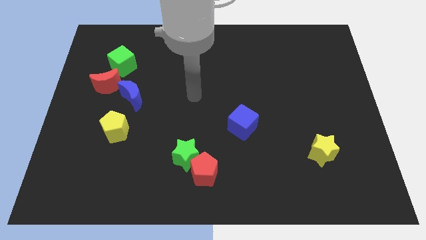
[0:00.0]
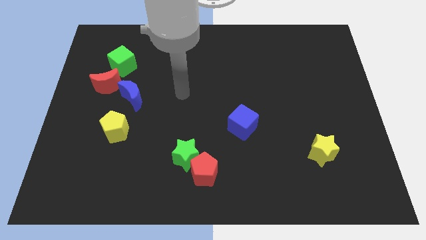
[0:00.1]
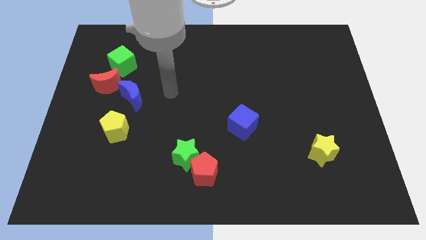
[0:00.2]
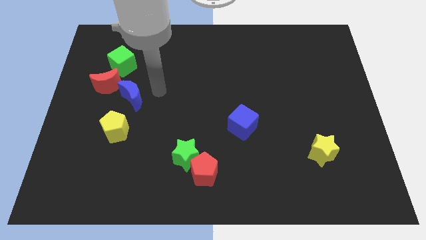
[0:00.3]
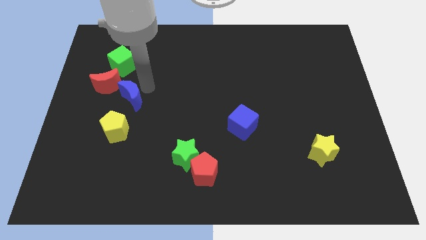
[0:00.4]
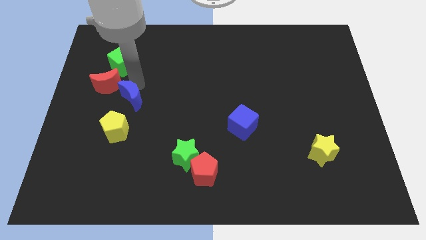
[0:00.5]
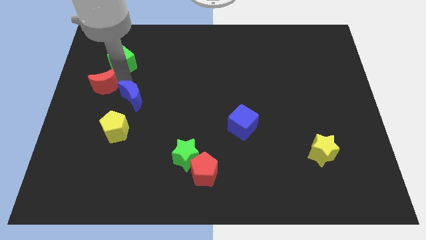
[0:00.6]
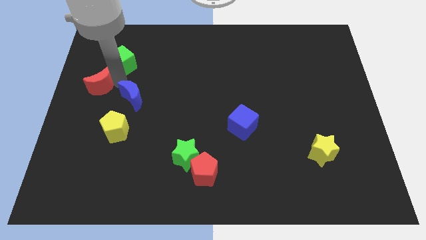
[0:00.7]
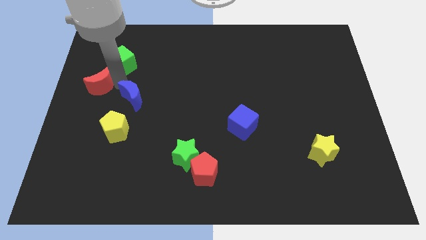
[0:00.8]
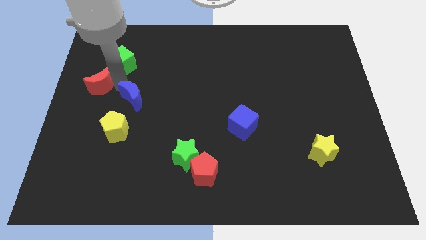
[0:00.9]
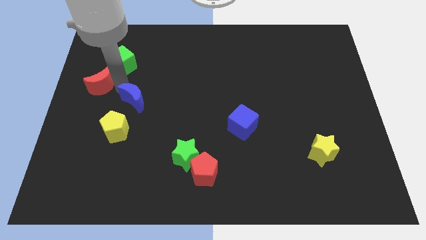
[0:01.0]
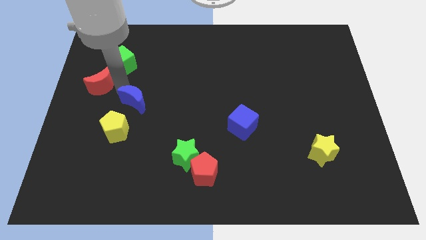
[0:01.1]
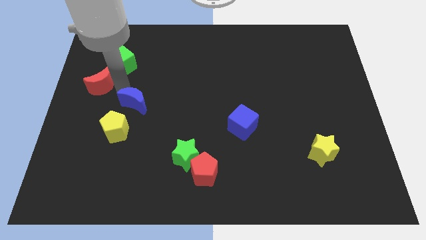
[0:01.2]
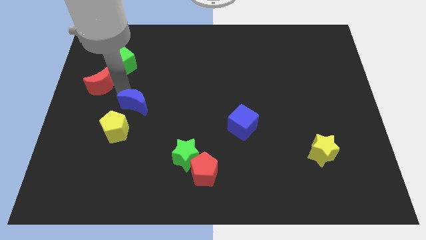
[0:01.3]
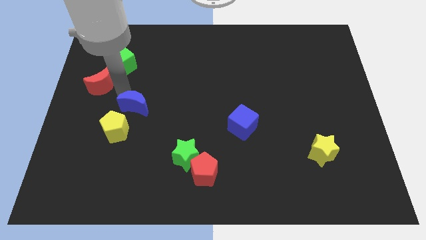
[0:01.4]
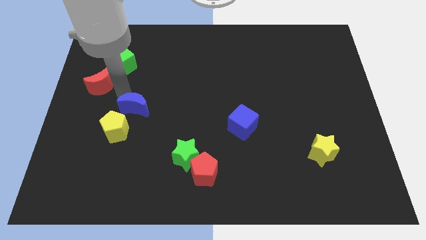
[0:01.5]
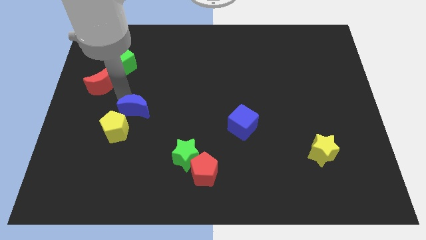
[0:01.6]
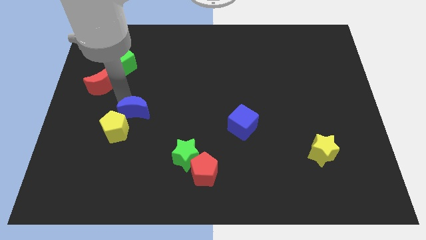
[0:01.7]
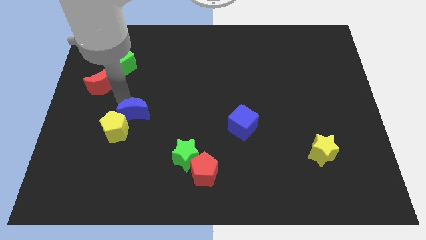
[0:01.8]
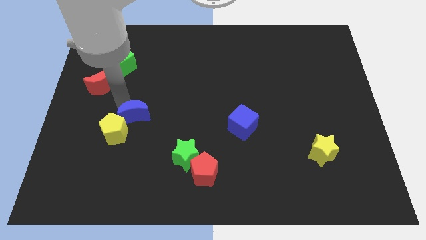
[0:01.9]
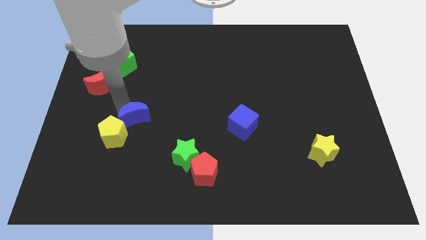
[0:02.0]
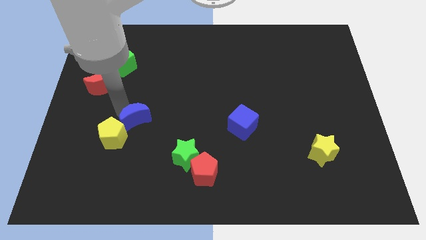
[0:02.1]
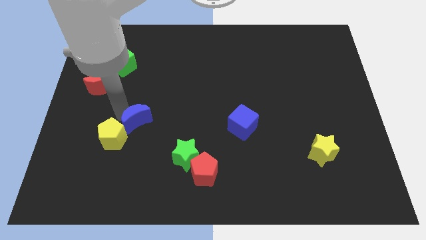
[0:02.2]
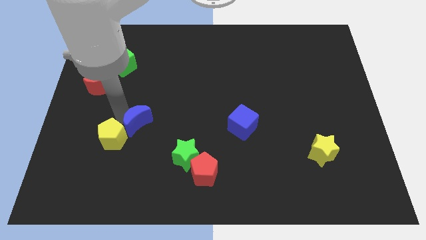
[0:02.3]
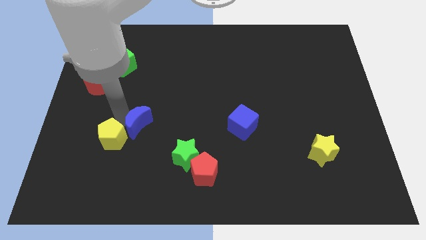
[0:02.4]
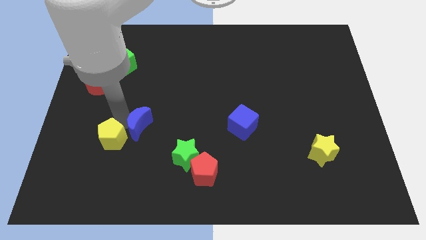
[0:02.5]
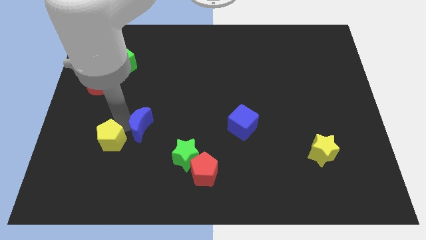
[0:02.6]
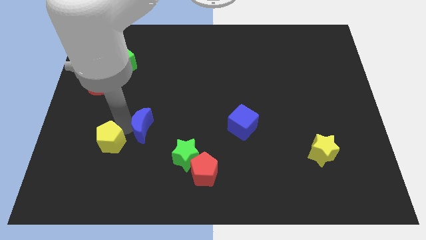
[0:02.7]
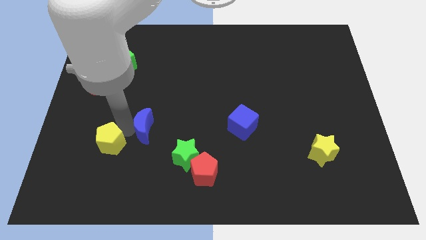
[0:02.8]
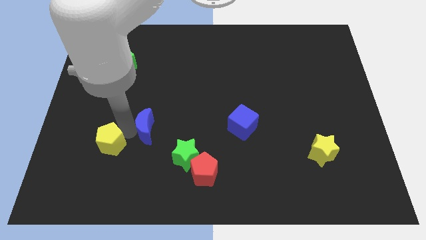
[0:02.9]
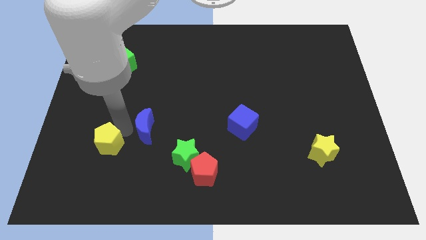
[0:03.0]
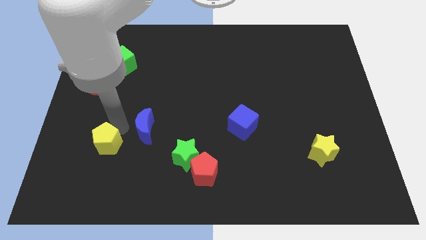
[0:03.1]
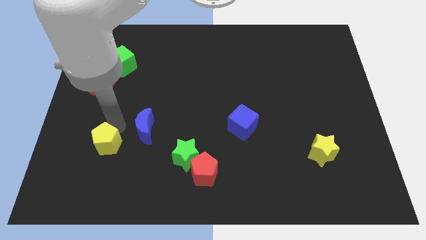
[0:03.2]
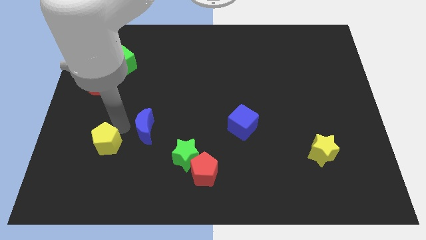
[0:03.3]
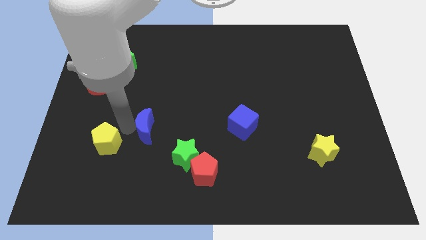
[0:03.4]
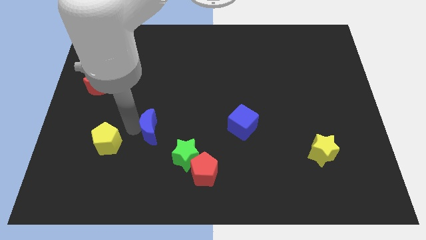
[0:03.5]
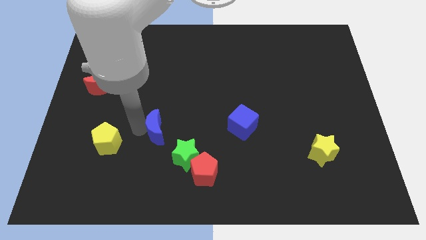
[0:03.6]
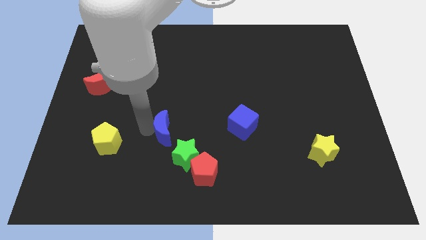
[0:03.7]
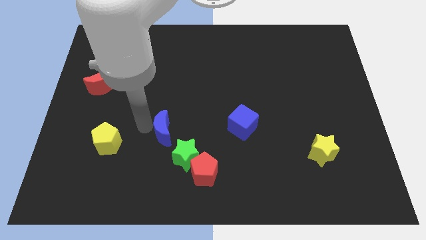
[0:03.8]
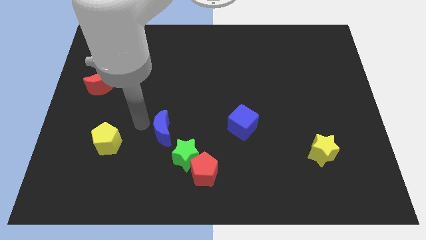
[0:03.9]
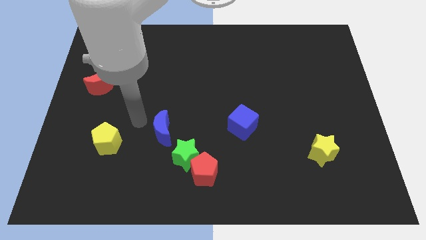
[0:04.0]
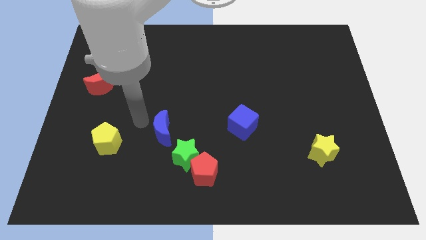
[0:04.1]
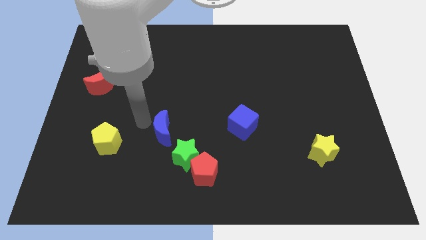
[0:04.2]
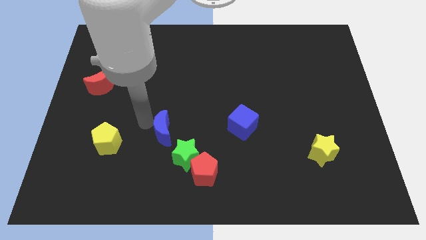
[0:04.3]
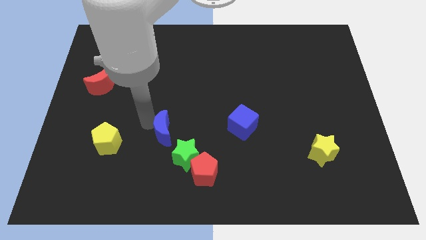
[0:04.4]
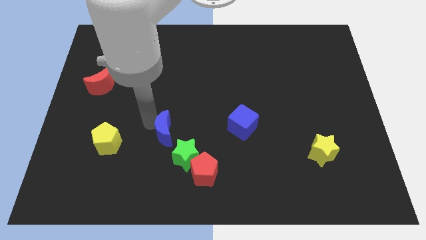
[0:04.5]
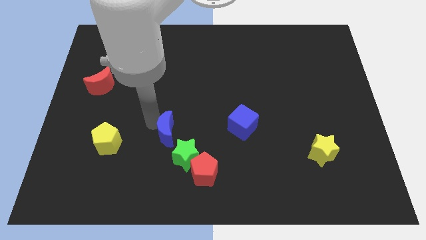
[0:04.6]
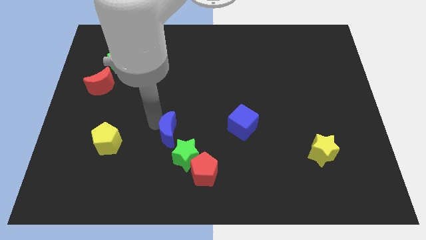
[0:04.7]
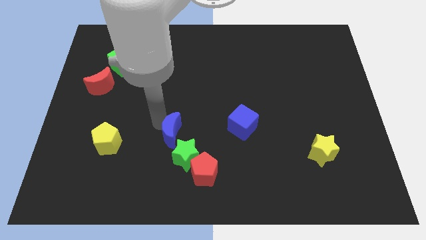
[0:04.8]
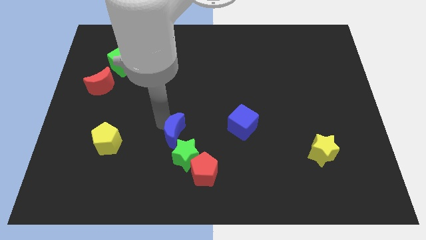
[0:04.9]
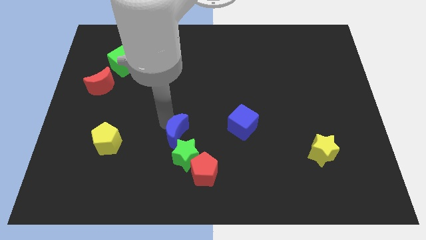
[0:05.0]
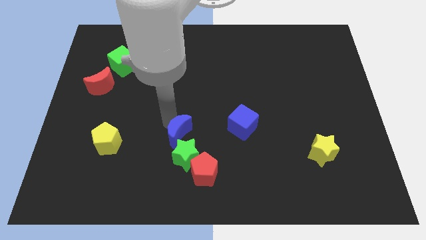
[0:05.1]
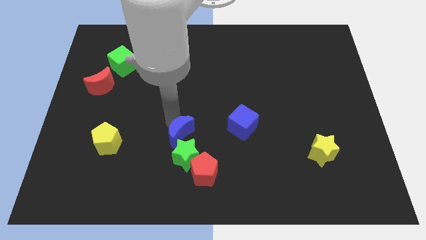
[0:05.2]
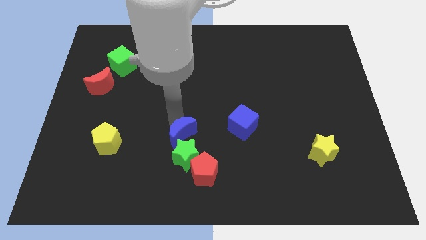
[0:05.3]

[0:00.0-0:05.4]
move the blue moon to the green star

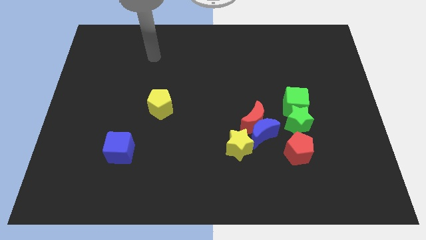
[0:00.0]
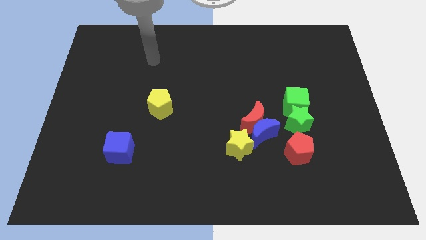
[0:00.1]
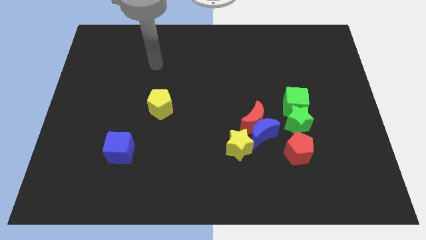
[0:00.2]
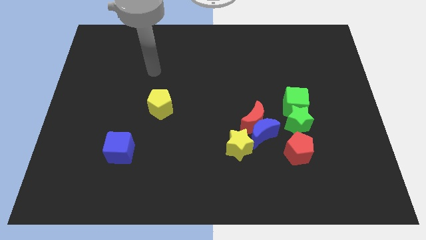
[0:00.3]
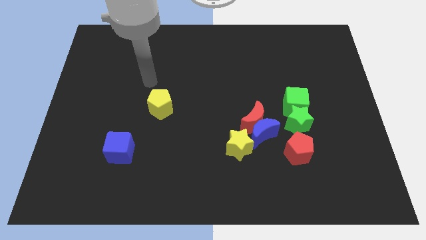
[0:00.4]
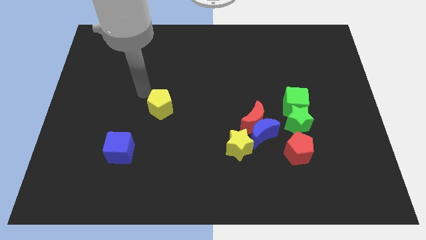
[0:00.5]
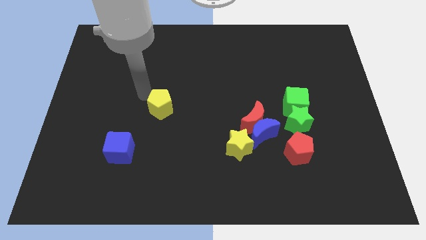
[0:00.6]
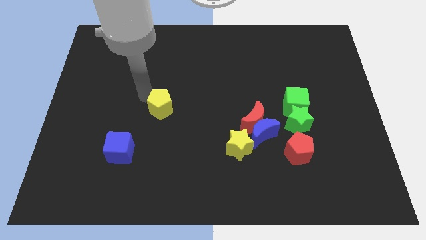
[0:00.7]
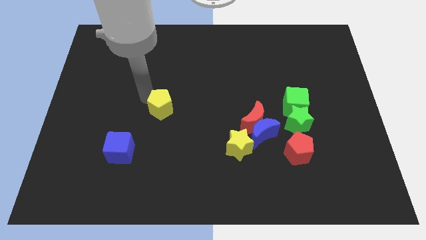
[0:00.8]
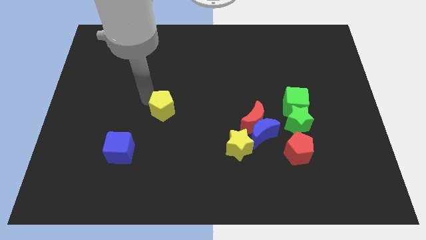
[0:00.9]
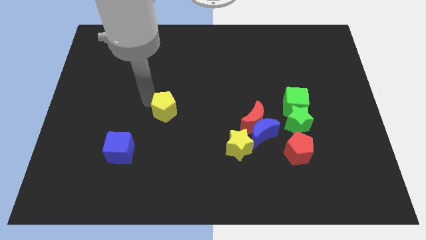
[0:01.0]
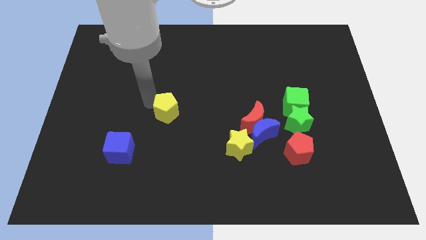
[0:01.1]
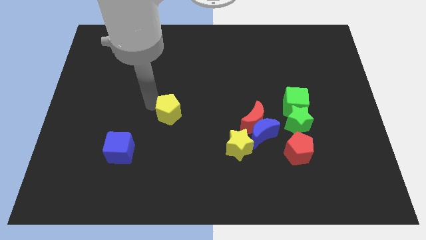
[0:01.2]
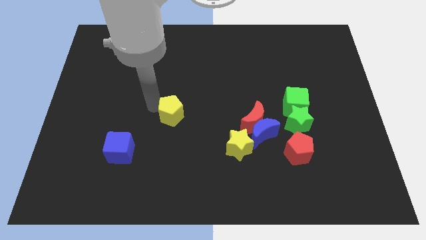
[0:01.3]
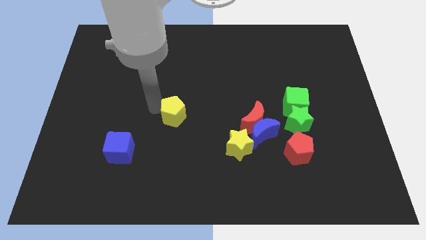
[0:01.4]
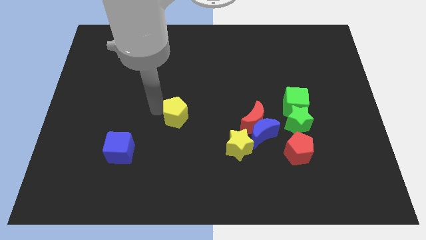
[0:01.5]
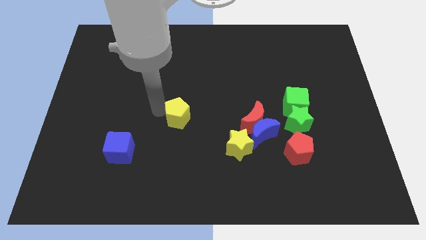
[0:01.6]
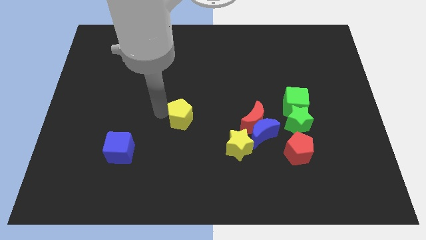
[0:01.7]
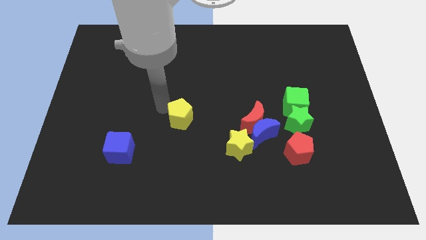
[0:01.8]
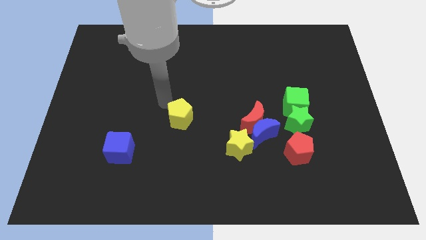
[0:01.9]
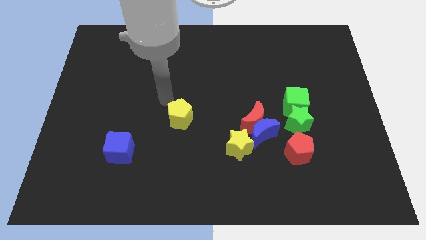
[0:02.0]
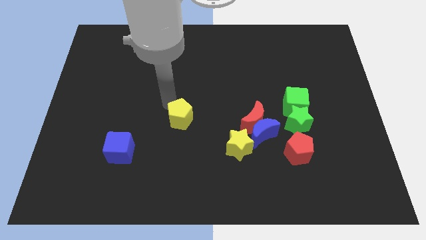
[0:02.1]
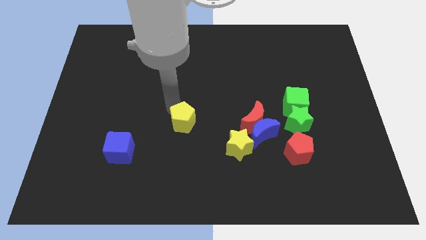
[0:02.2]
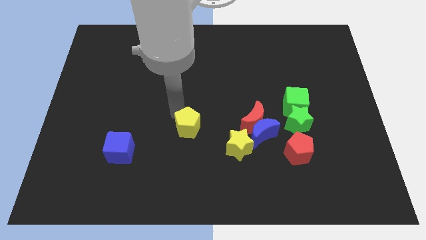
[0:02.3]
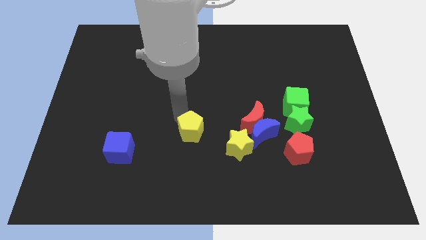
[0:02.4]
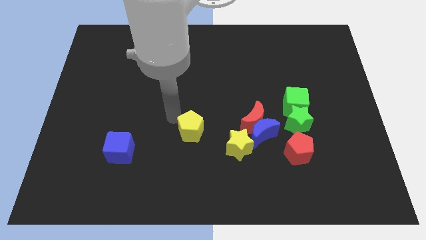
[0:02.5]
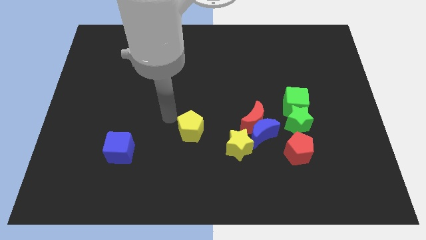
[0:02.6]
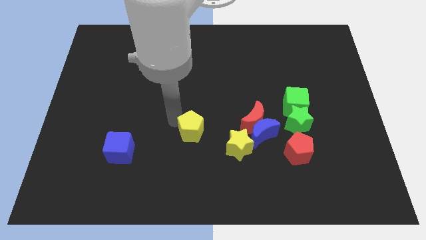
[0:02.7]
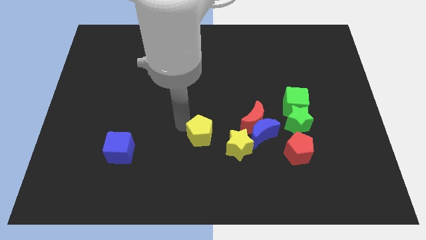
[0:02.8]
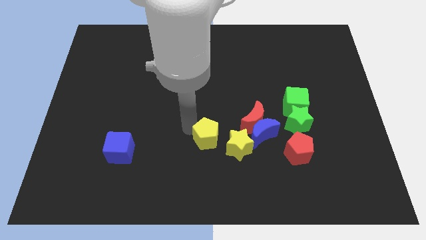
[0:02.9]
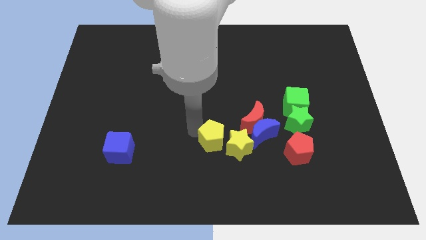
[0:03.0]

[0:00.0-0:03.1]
put the yellow pentagon to the yellow star

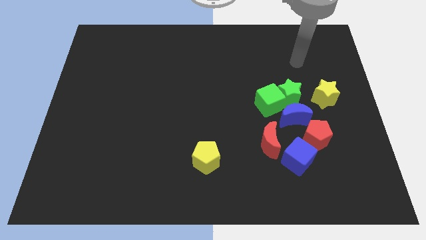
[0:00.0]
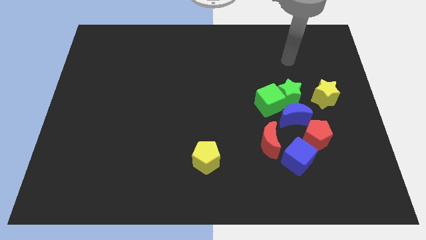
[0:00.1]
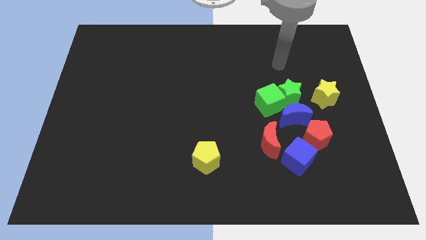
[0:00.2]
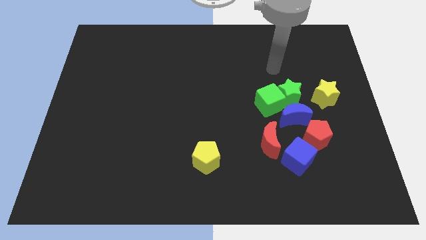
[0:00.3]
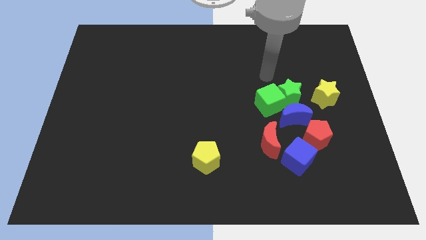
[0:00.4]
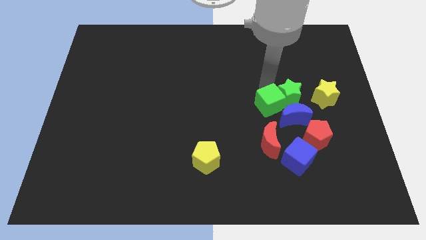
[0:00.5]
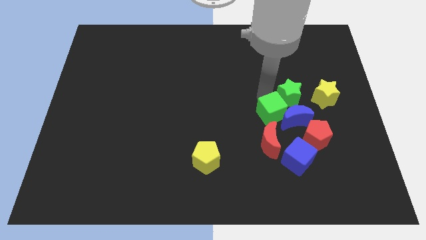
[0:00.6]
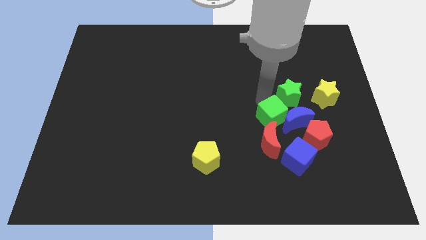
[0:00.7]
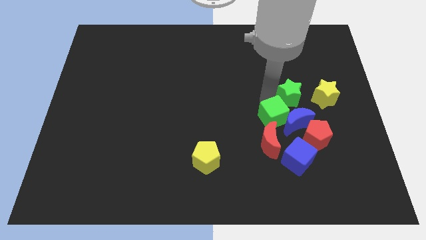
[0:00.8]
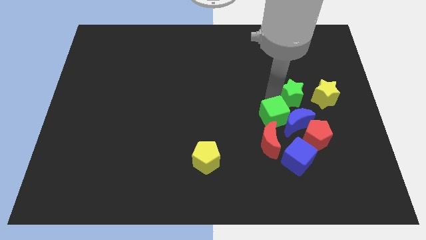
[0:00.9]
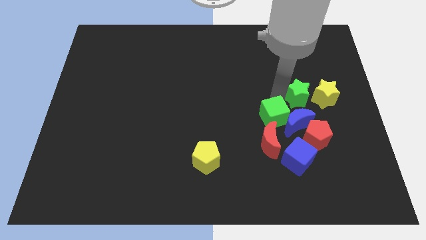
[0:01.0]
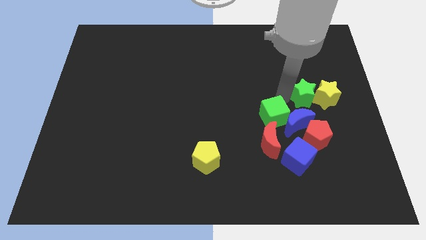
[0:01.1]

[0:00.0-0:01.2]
put the green star to the yellow star
